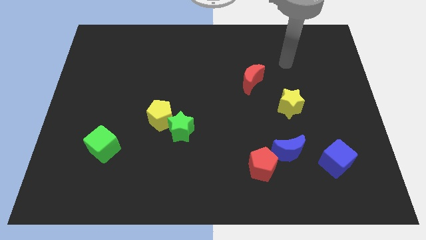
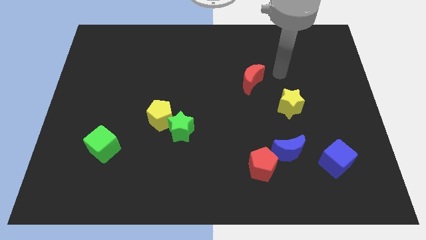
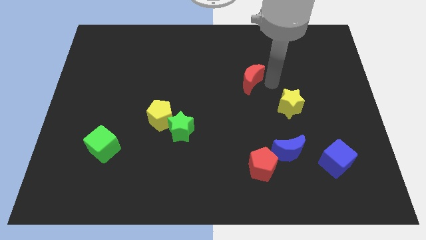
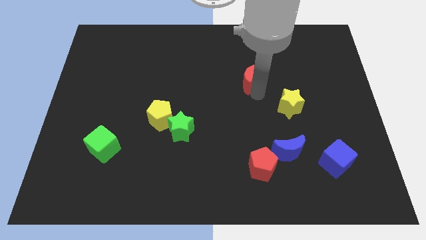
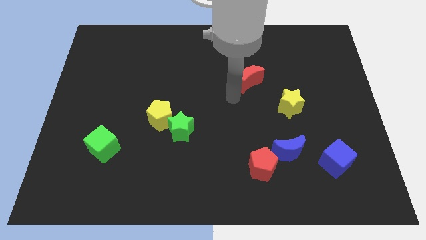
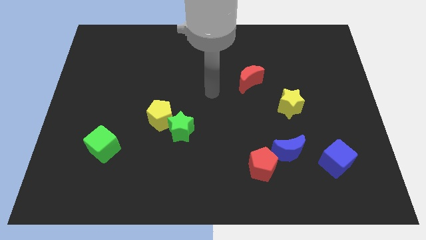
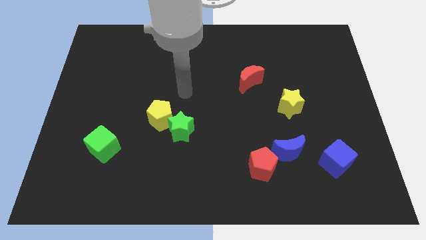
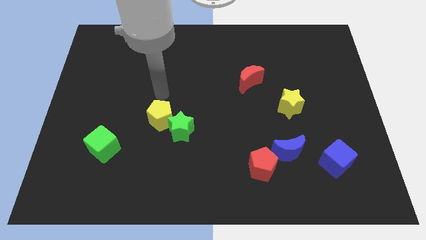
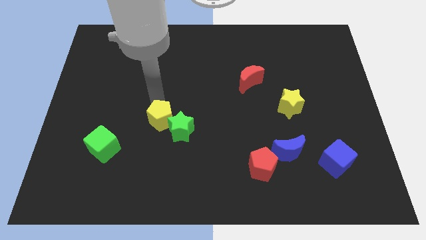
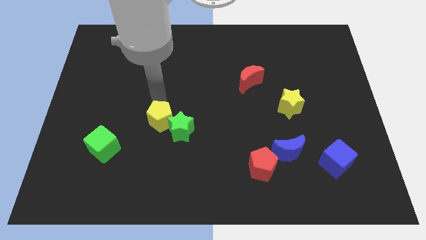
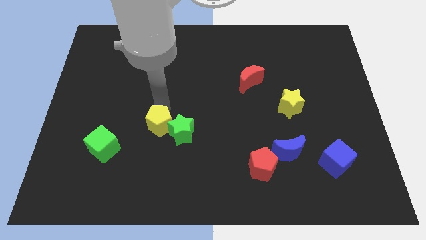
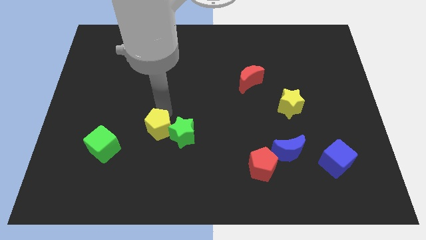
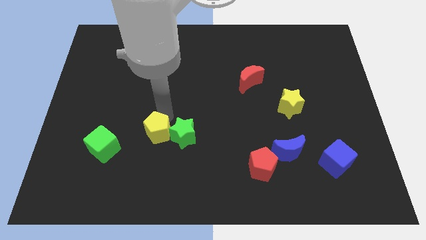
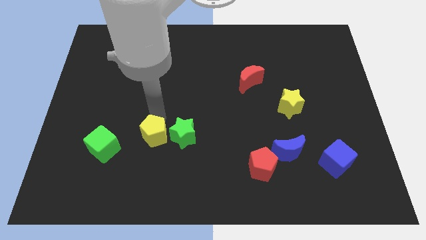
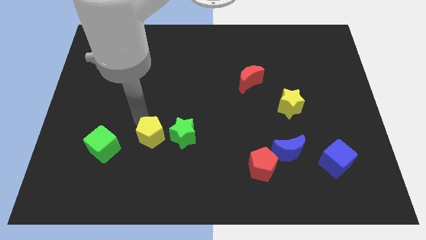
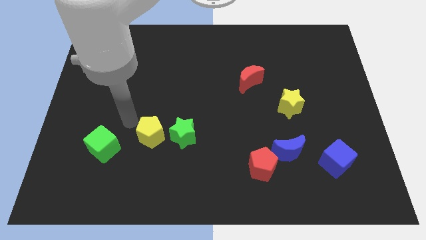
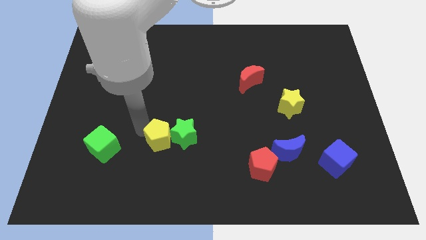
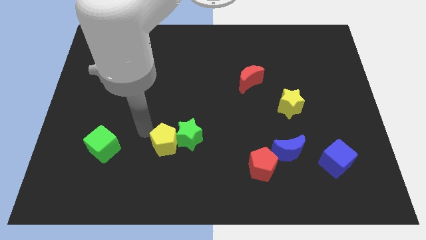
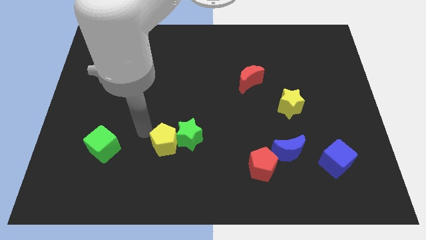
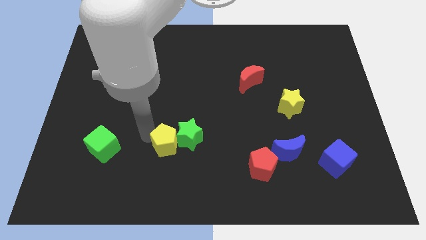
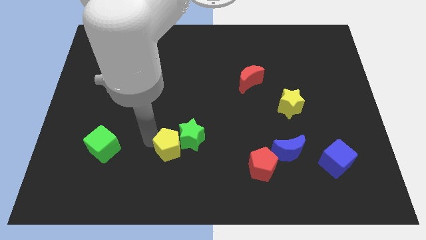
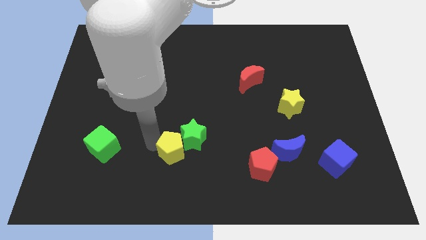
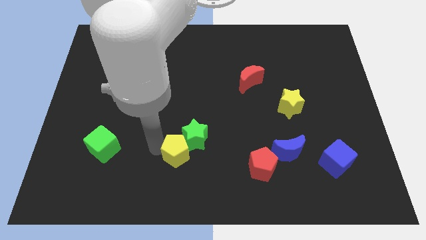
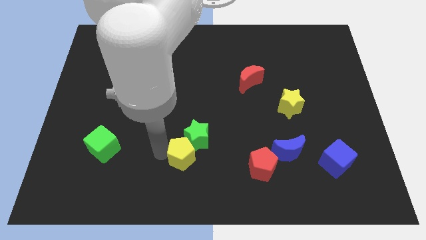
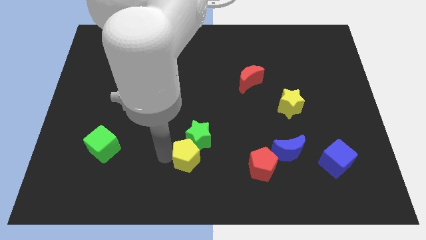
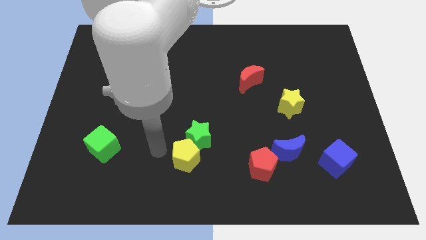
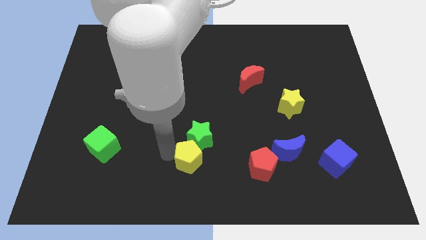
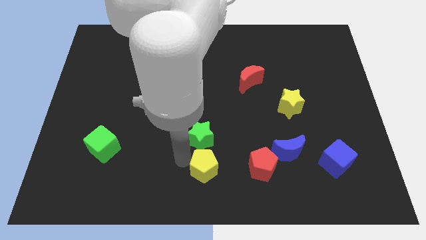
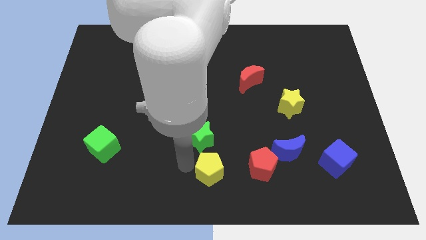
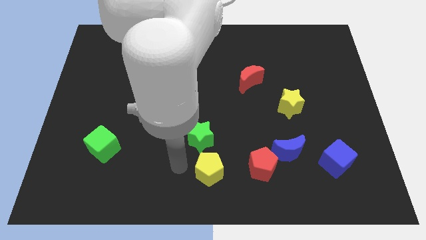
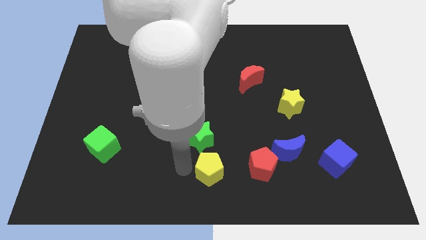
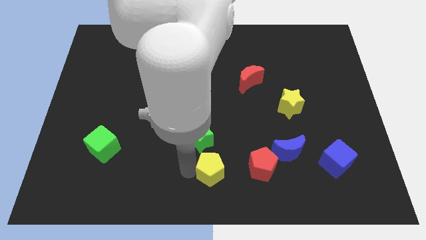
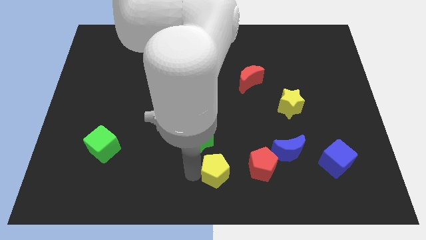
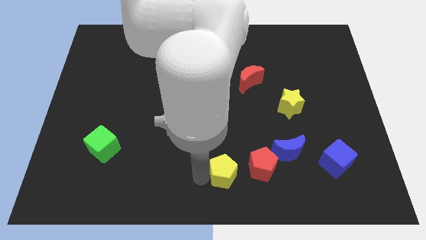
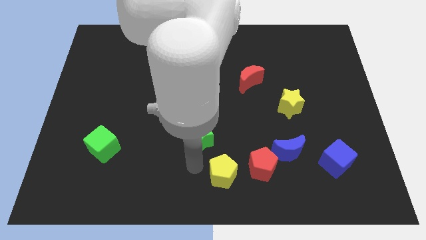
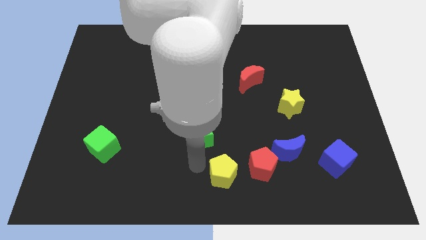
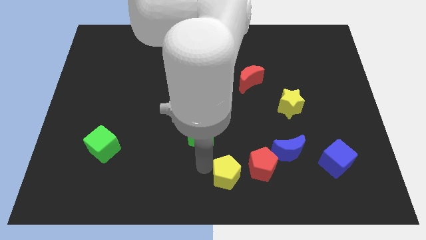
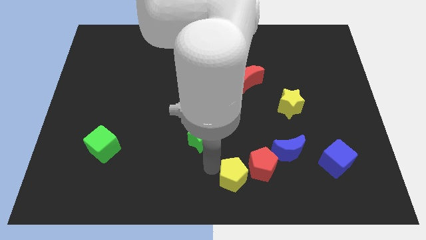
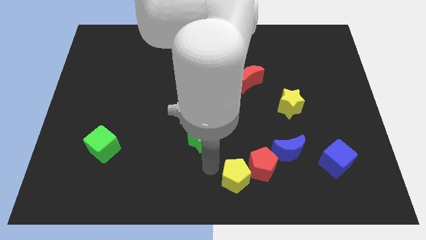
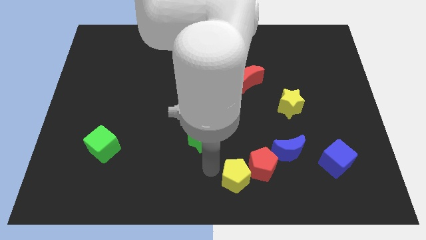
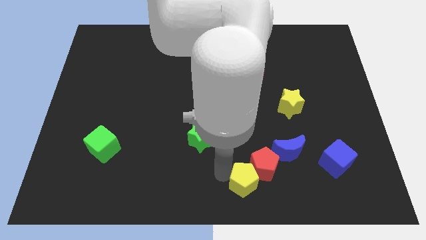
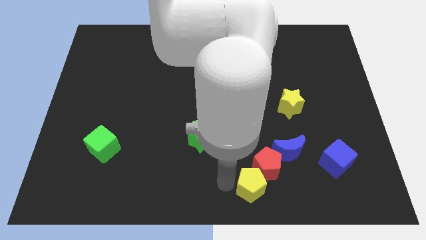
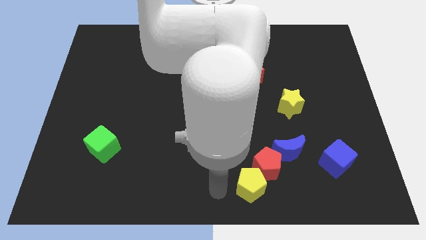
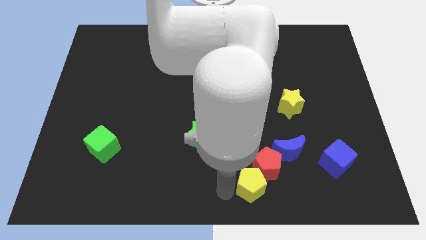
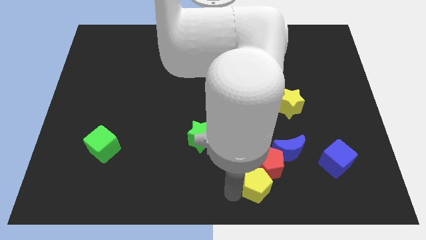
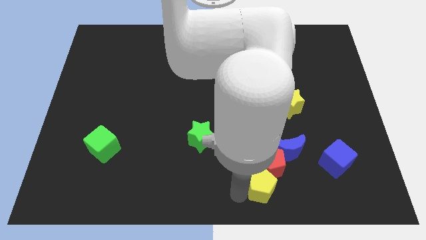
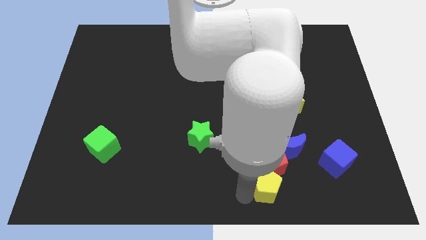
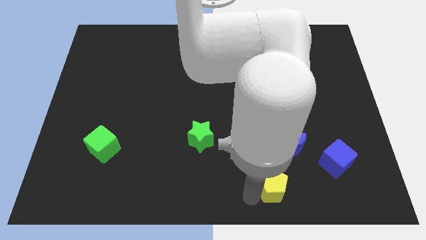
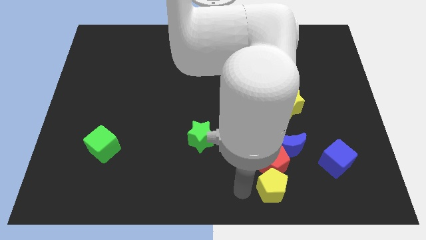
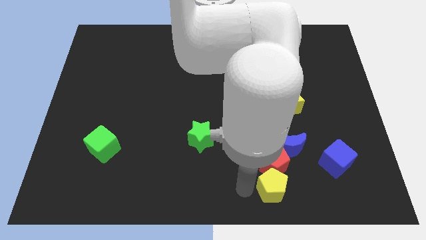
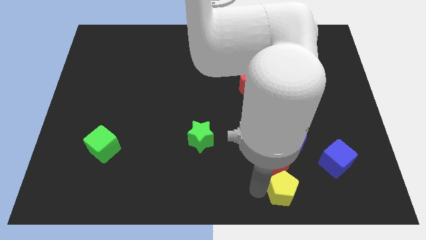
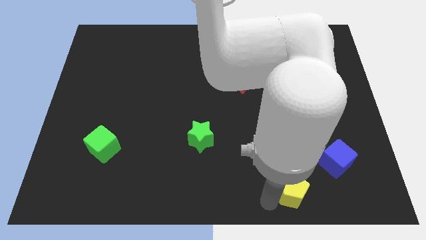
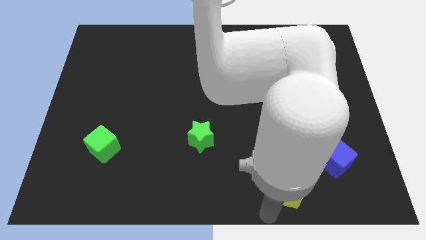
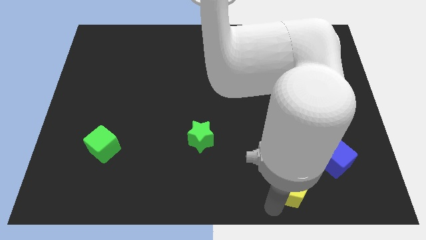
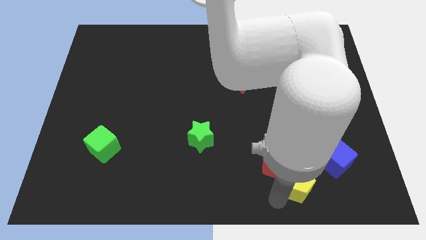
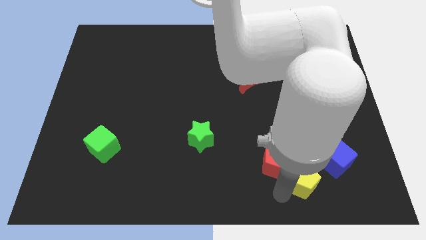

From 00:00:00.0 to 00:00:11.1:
put the yellow pentagon diagonally down and to the right of the blue moon

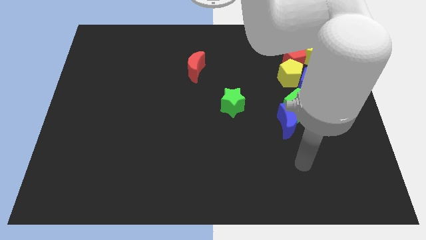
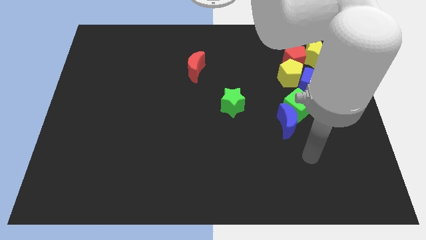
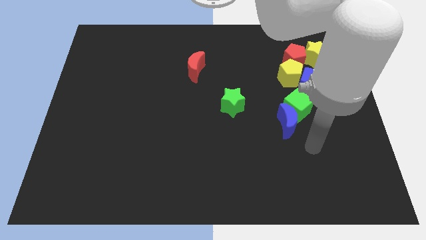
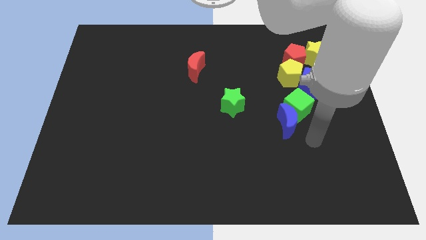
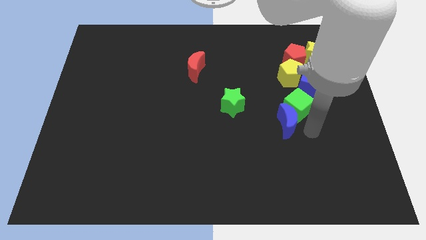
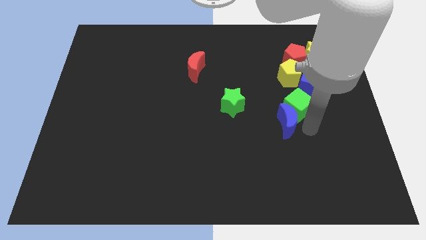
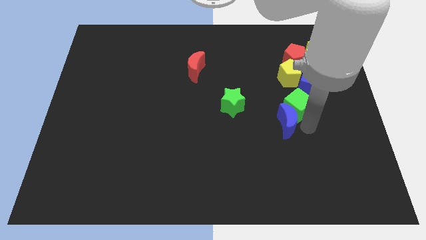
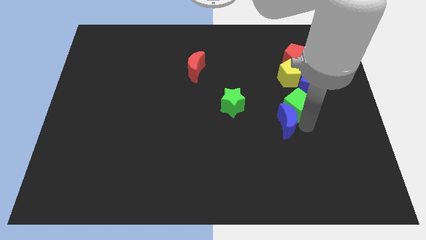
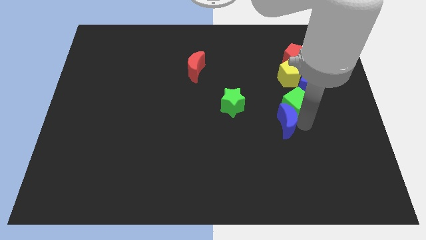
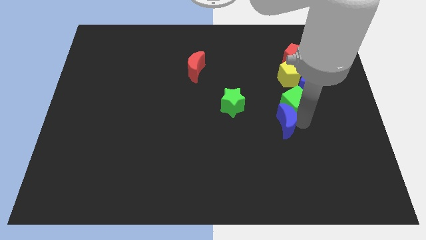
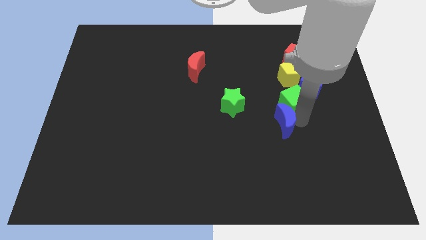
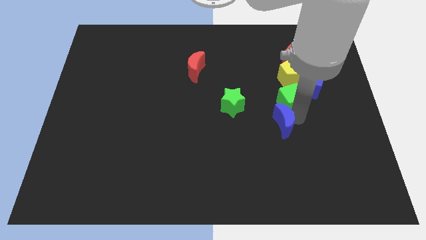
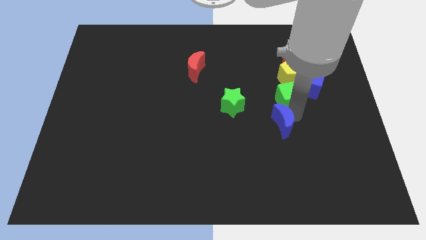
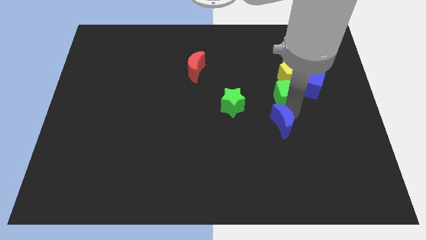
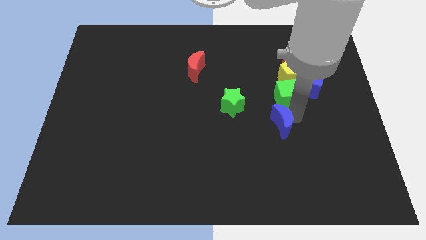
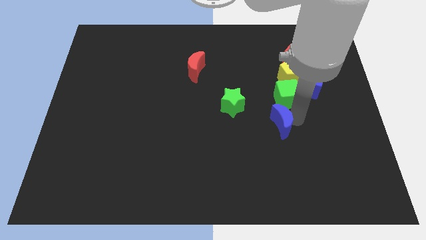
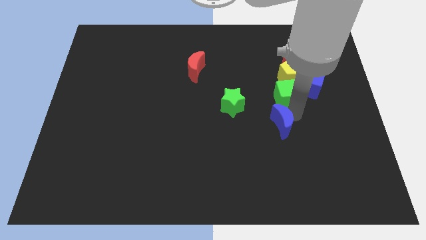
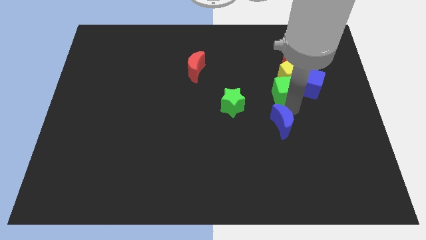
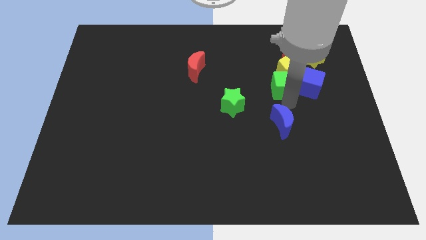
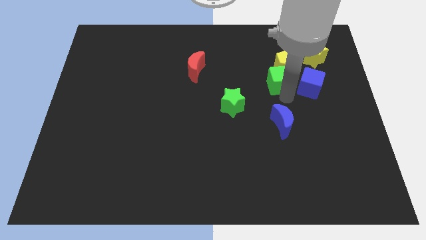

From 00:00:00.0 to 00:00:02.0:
move the green cube to the bottom left side of the red pentagon

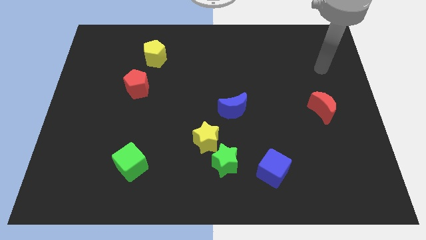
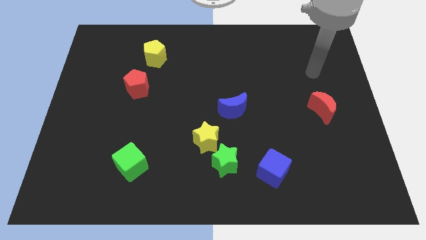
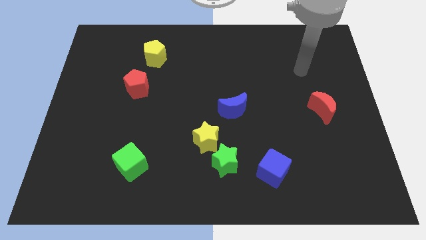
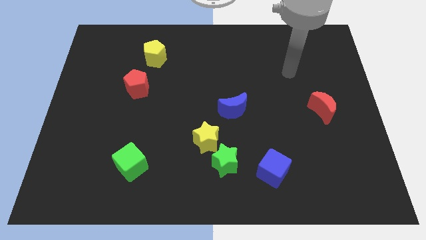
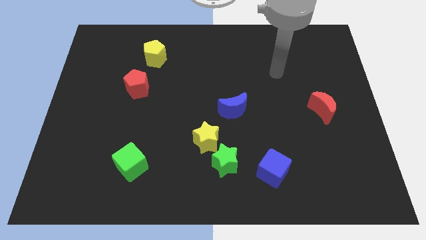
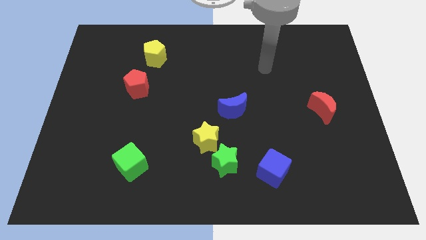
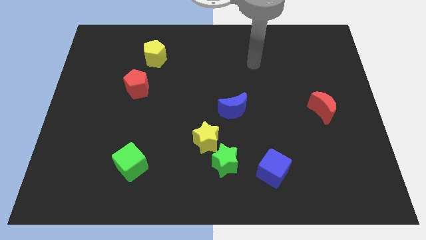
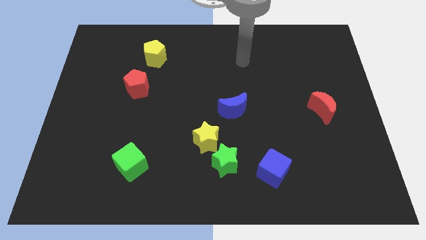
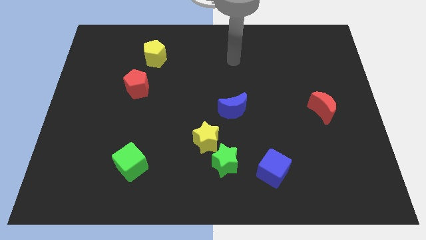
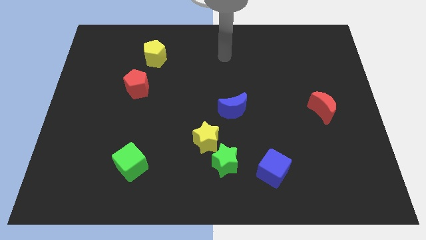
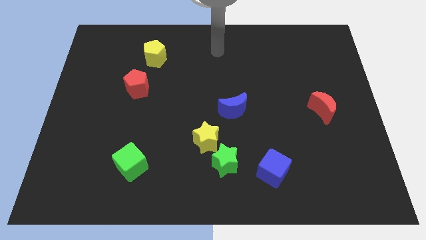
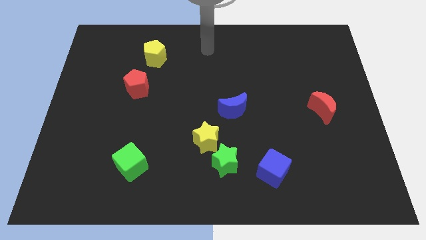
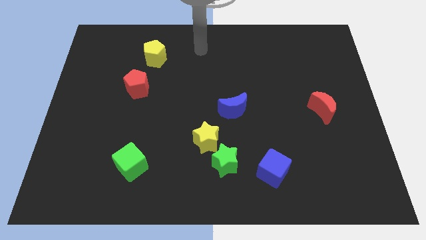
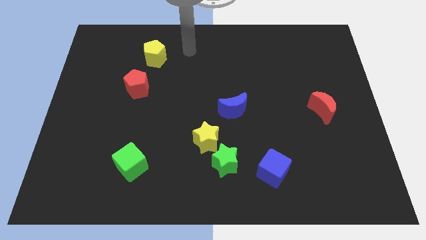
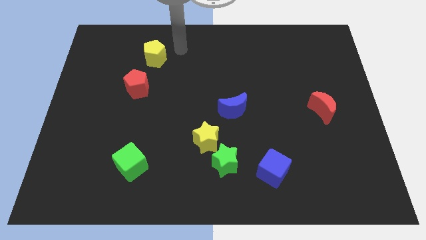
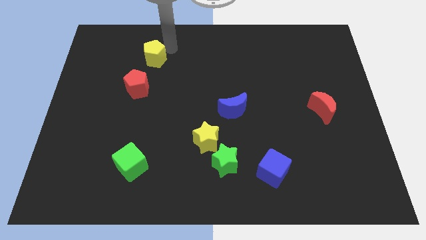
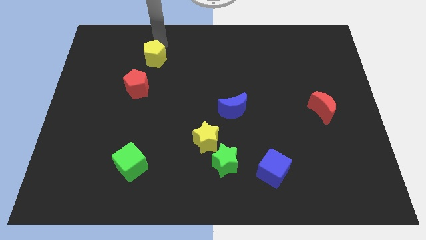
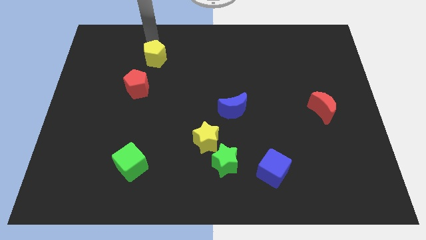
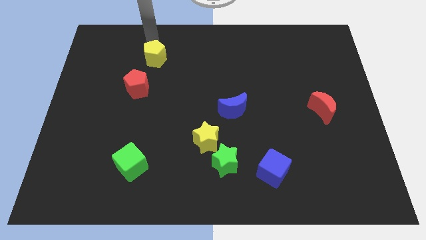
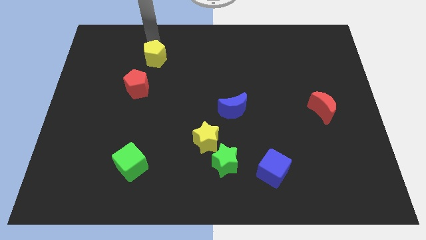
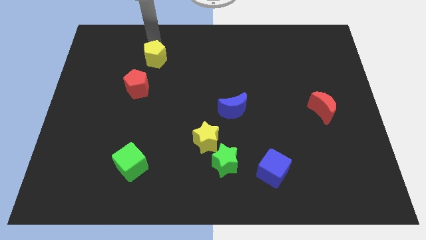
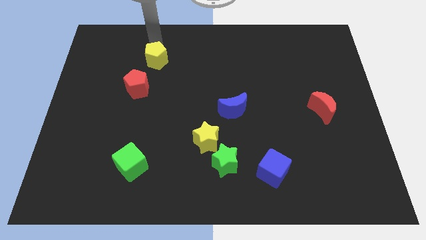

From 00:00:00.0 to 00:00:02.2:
put the yellow pentagon to the top right side of the red pentagon
